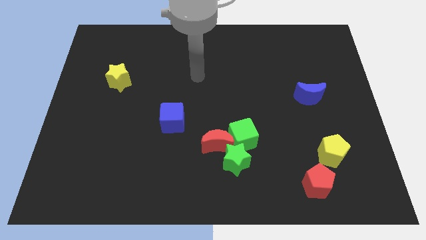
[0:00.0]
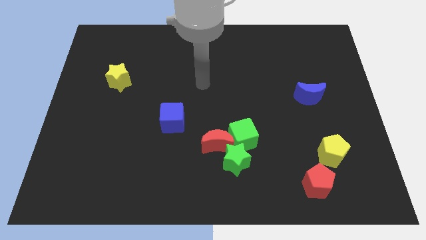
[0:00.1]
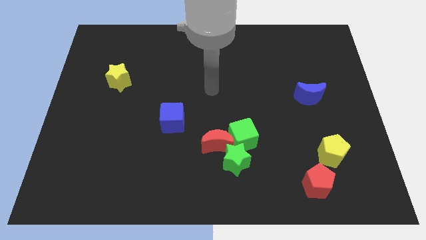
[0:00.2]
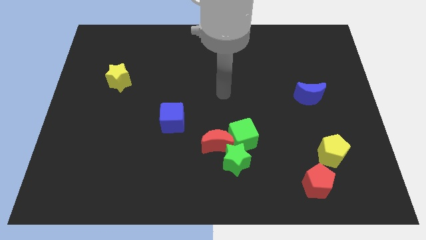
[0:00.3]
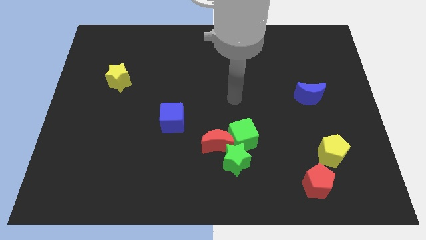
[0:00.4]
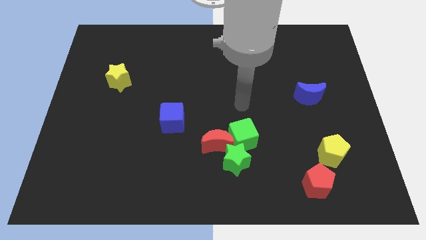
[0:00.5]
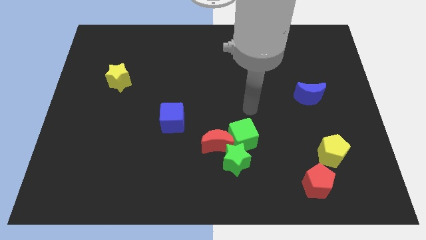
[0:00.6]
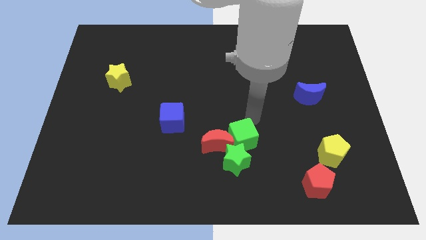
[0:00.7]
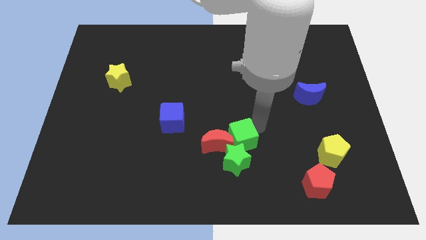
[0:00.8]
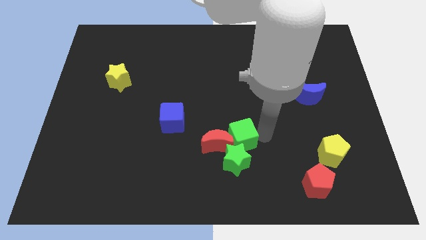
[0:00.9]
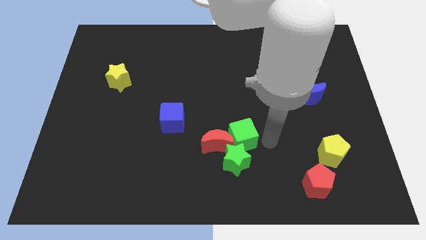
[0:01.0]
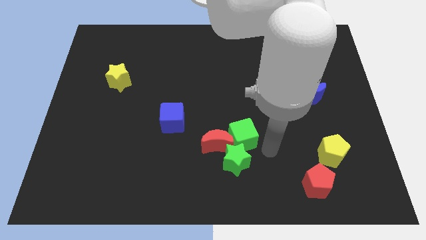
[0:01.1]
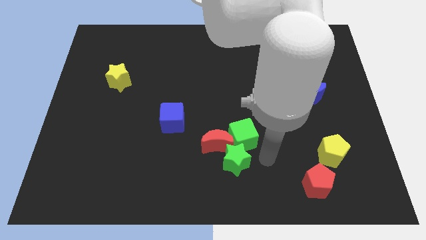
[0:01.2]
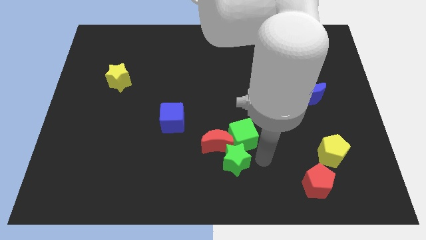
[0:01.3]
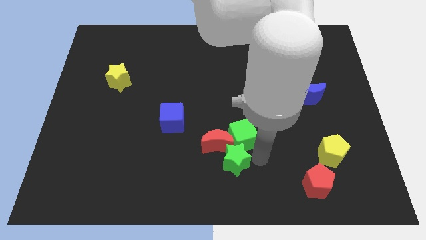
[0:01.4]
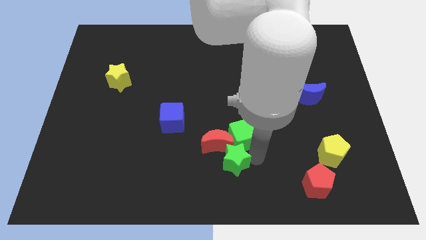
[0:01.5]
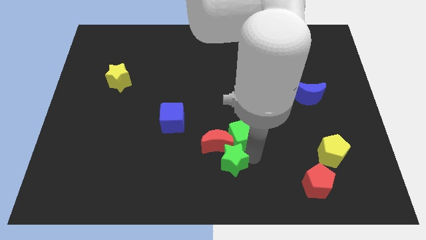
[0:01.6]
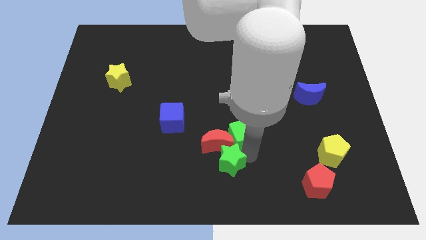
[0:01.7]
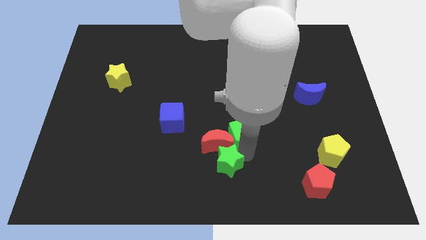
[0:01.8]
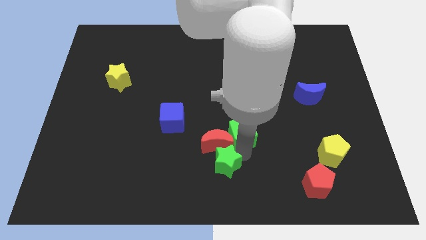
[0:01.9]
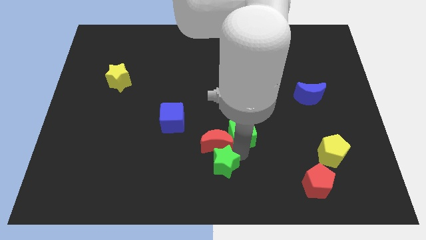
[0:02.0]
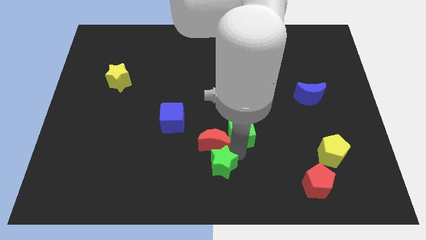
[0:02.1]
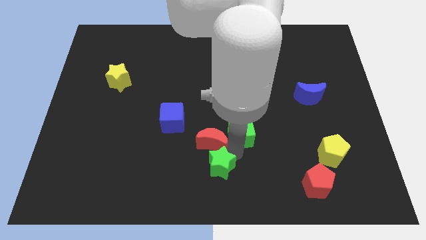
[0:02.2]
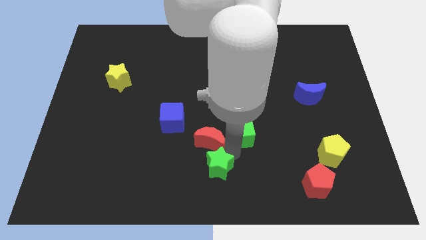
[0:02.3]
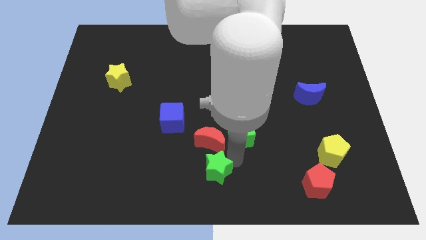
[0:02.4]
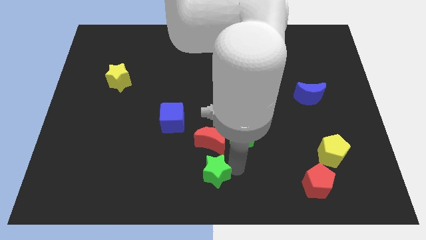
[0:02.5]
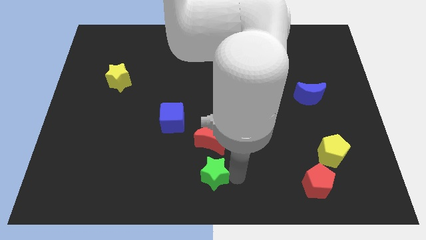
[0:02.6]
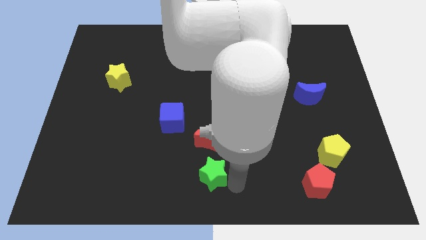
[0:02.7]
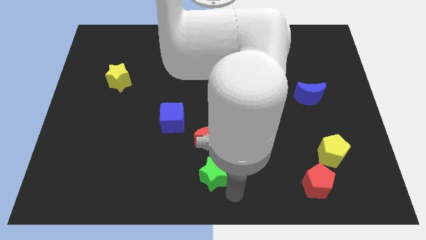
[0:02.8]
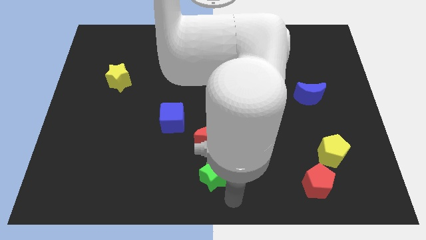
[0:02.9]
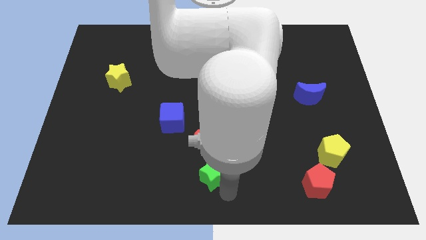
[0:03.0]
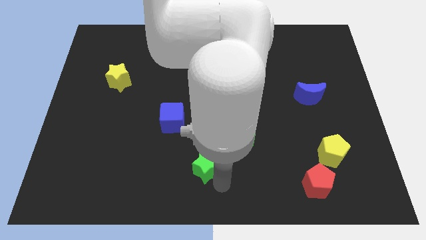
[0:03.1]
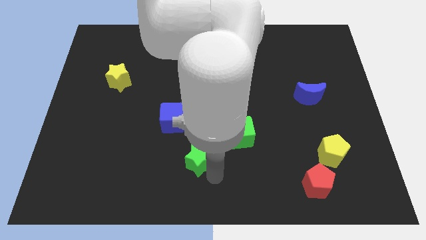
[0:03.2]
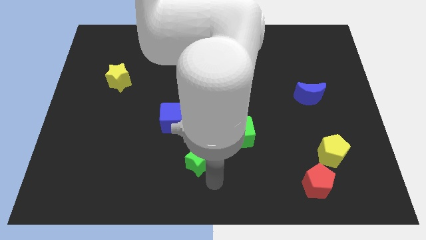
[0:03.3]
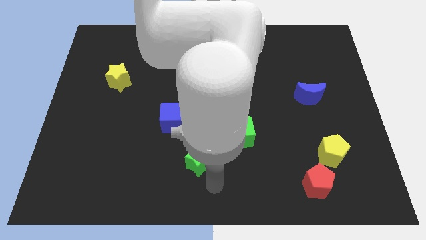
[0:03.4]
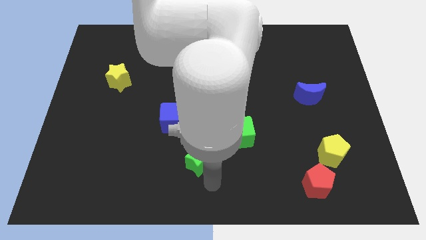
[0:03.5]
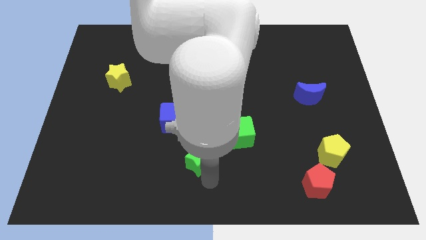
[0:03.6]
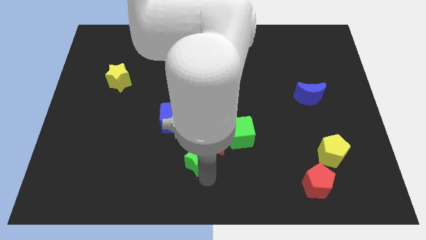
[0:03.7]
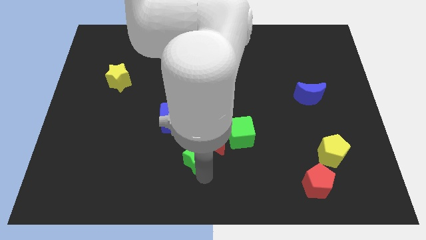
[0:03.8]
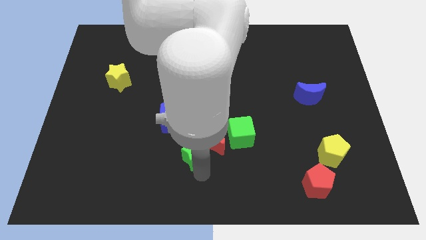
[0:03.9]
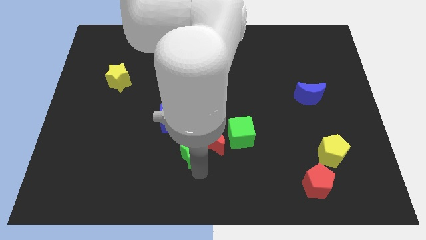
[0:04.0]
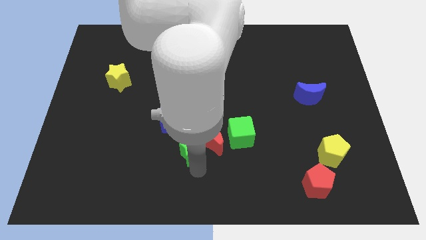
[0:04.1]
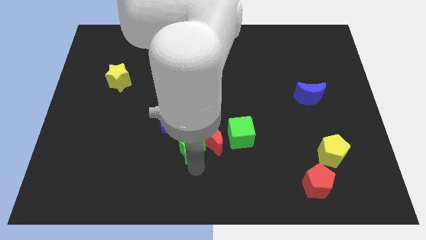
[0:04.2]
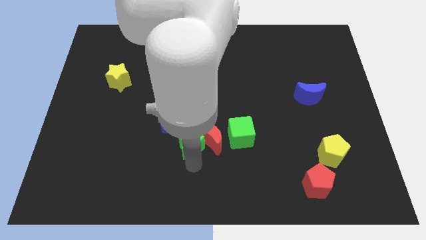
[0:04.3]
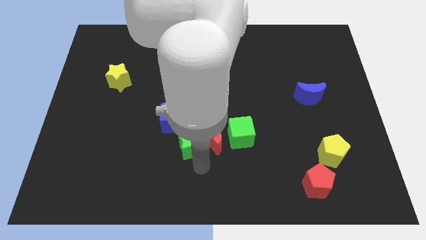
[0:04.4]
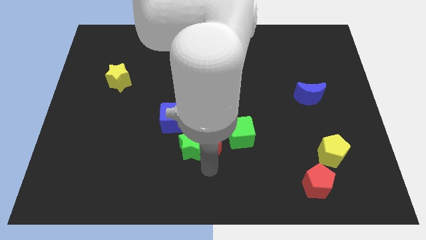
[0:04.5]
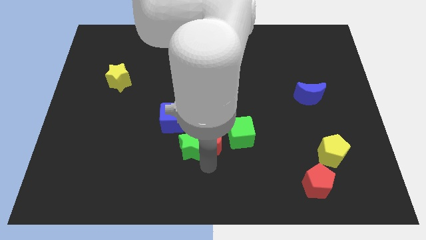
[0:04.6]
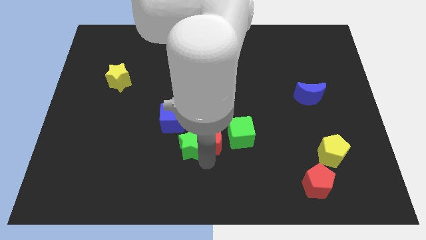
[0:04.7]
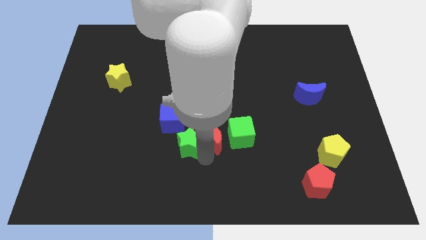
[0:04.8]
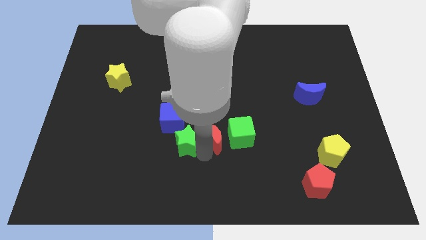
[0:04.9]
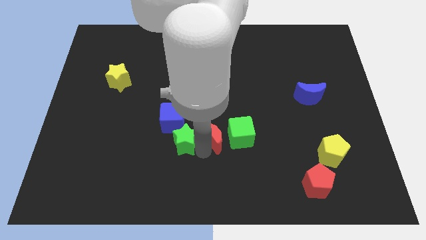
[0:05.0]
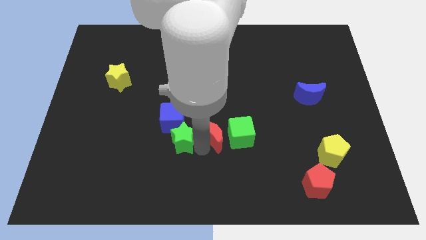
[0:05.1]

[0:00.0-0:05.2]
push the green star next to the blue cube

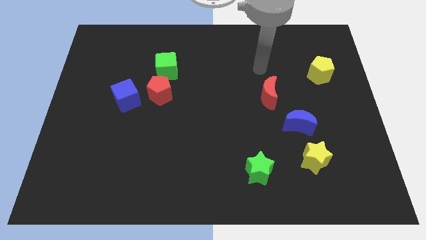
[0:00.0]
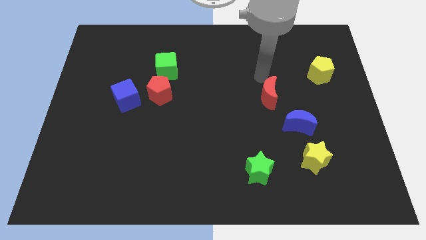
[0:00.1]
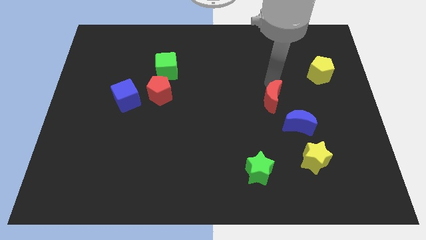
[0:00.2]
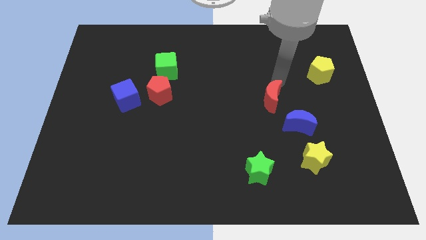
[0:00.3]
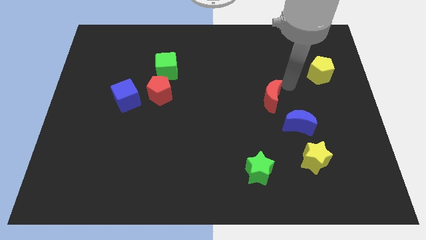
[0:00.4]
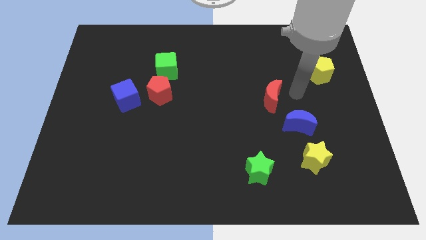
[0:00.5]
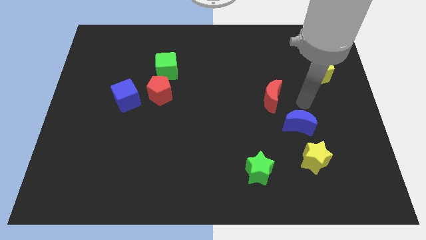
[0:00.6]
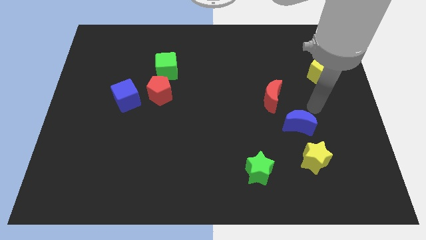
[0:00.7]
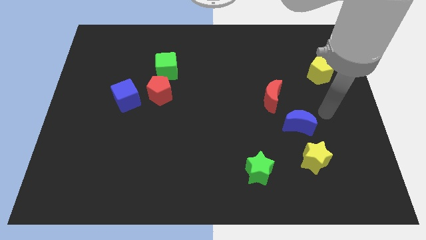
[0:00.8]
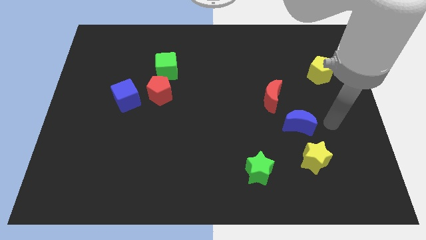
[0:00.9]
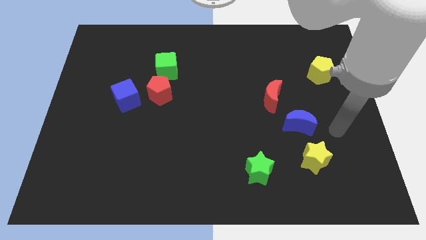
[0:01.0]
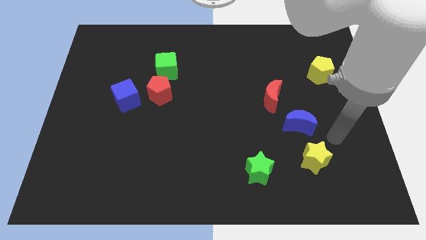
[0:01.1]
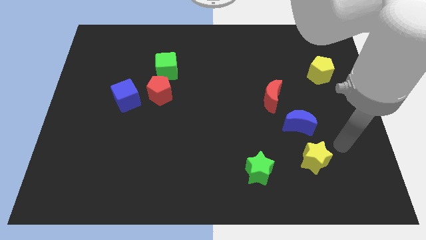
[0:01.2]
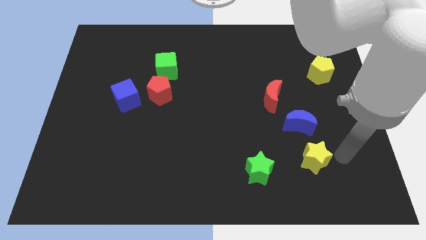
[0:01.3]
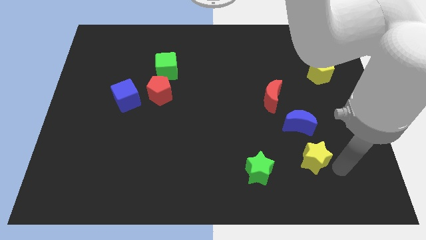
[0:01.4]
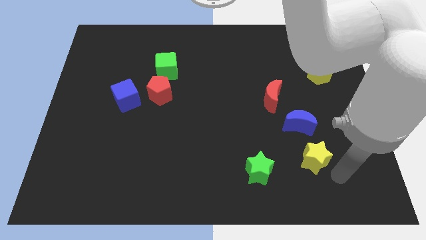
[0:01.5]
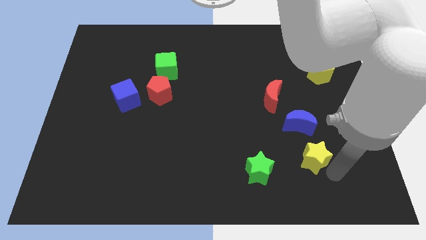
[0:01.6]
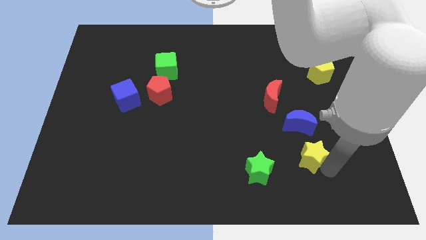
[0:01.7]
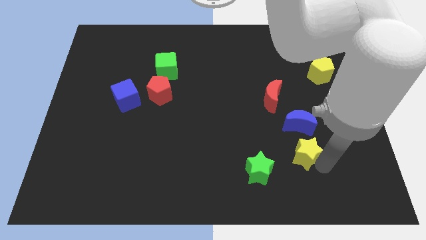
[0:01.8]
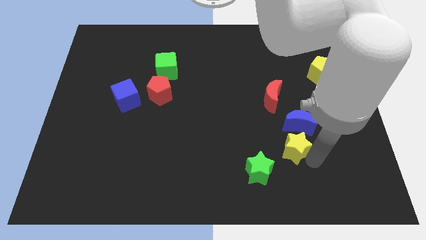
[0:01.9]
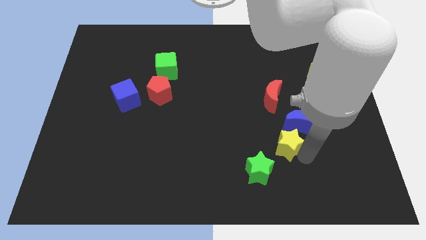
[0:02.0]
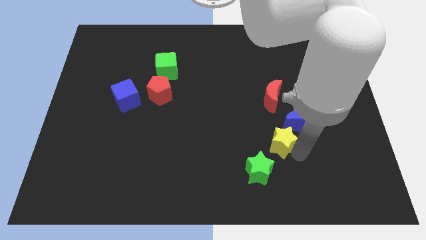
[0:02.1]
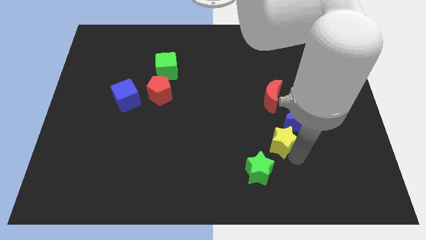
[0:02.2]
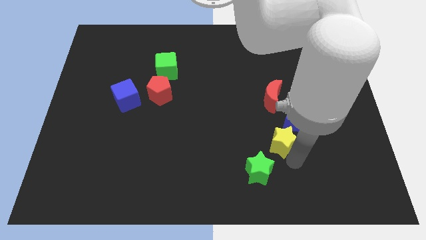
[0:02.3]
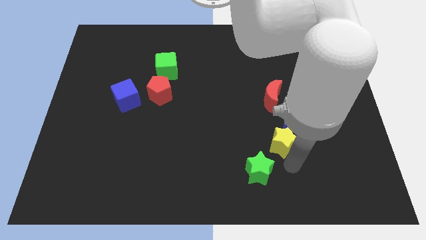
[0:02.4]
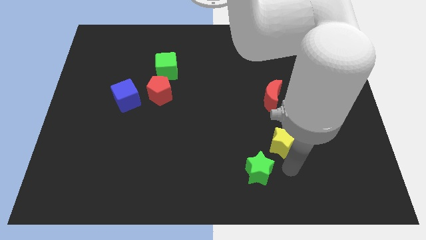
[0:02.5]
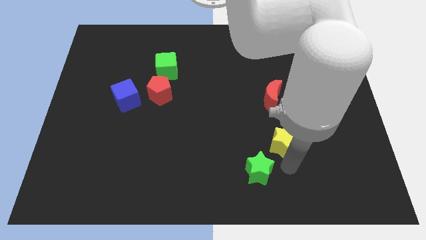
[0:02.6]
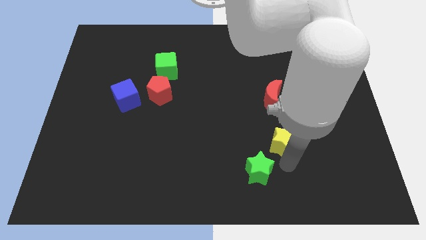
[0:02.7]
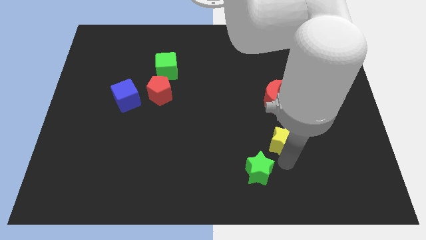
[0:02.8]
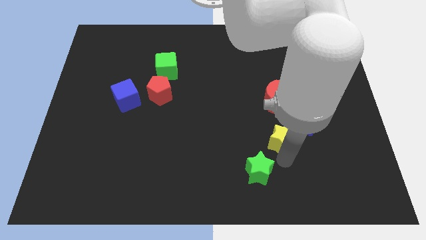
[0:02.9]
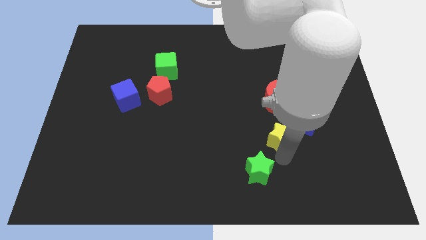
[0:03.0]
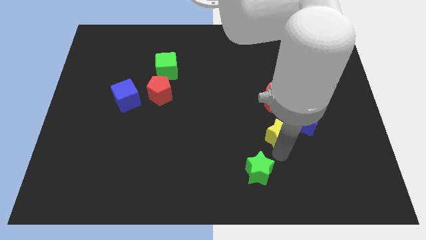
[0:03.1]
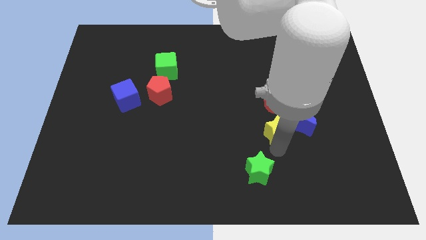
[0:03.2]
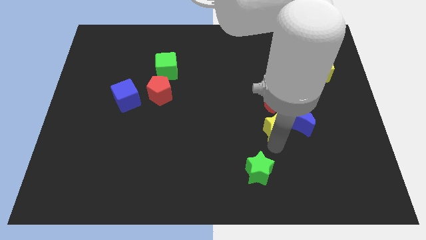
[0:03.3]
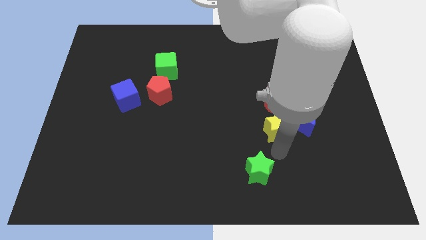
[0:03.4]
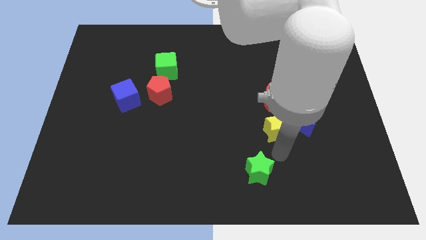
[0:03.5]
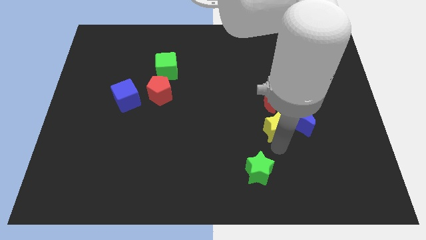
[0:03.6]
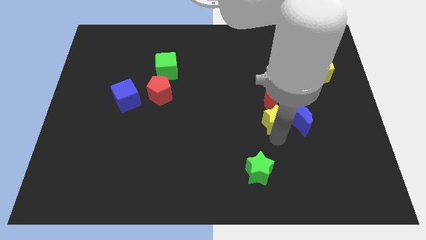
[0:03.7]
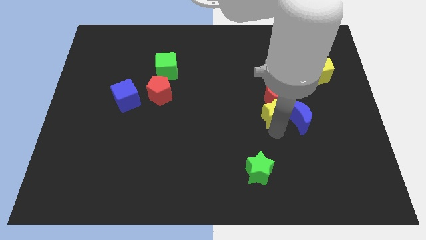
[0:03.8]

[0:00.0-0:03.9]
slide the yellow star next to the red moon
